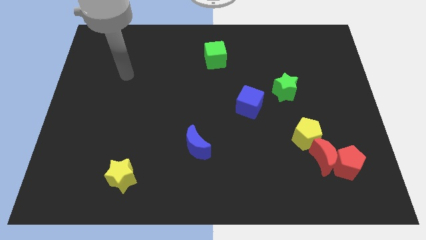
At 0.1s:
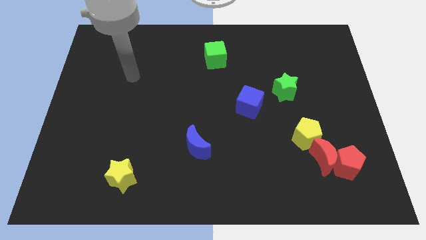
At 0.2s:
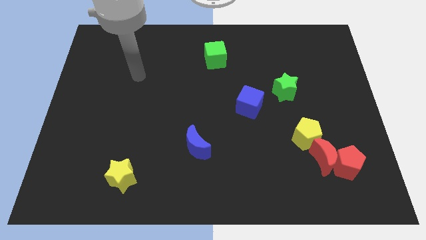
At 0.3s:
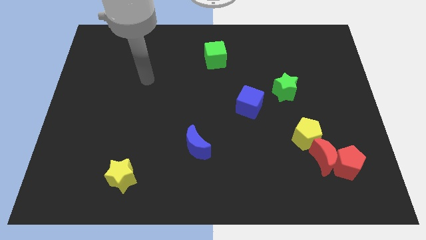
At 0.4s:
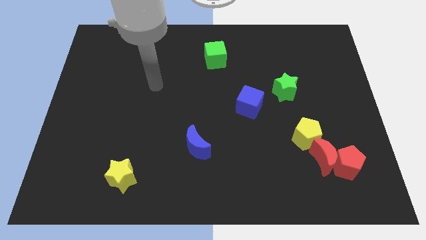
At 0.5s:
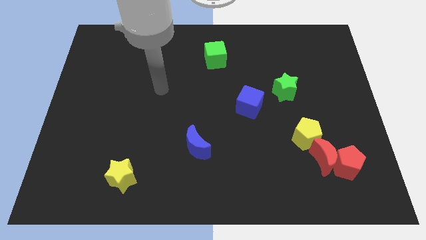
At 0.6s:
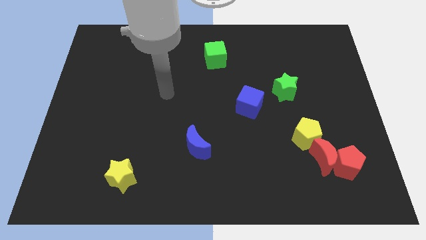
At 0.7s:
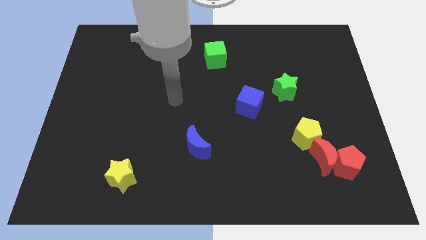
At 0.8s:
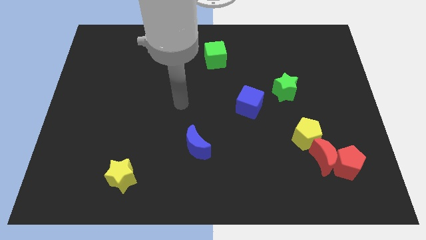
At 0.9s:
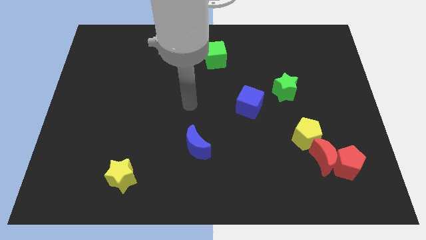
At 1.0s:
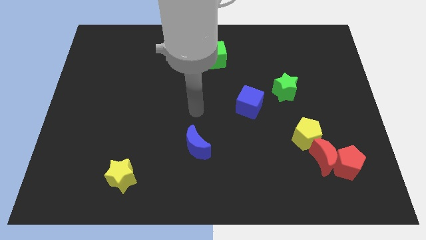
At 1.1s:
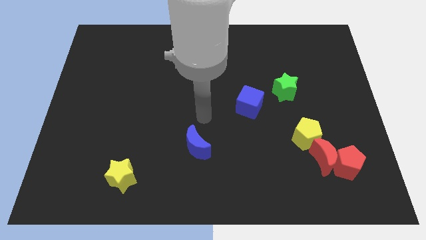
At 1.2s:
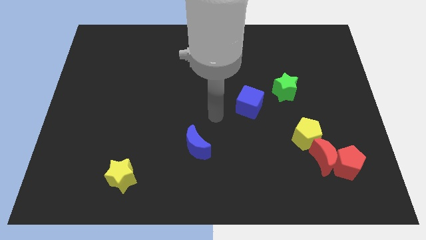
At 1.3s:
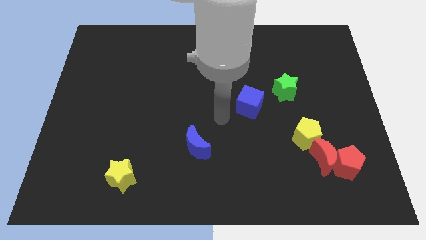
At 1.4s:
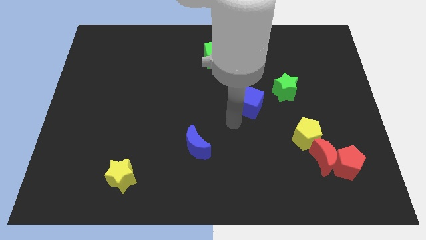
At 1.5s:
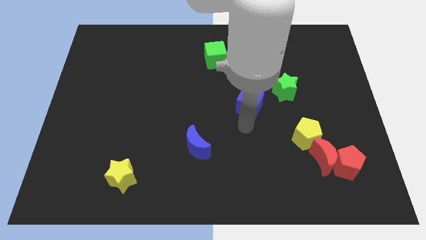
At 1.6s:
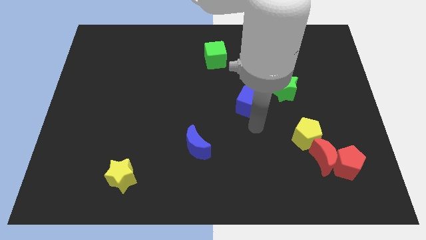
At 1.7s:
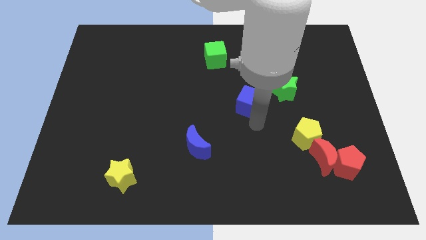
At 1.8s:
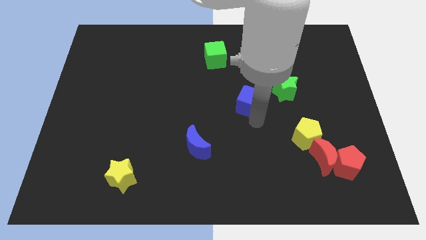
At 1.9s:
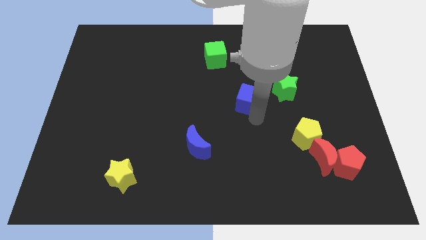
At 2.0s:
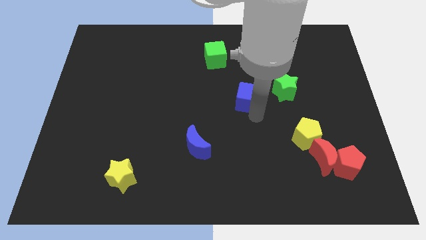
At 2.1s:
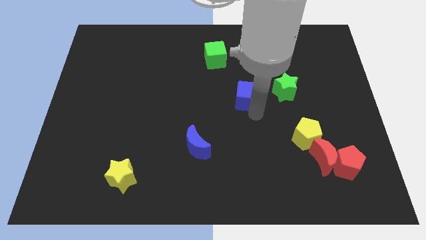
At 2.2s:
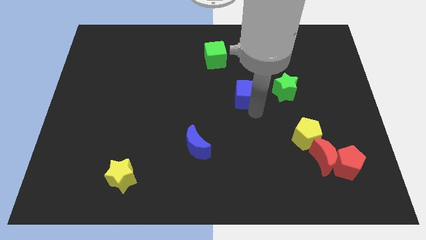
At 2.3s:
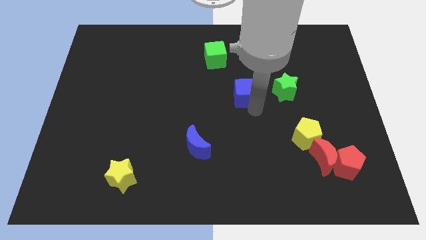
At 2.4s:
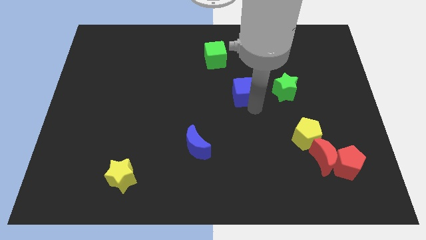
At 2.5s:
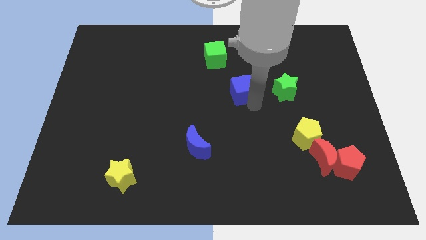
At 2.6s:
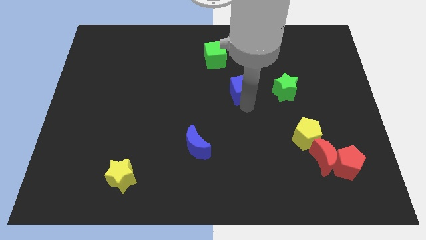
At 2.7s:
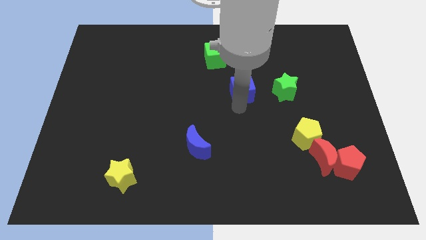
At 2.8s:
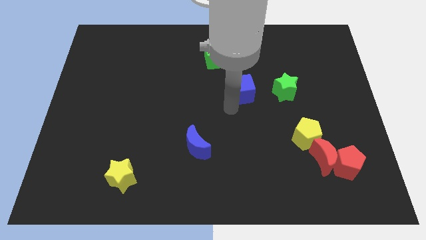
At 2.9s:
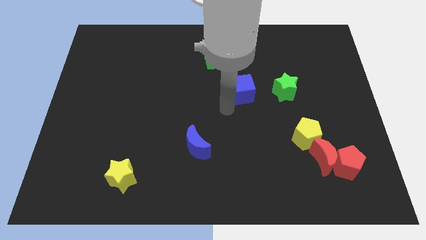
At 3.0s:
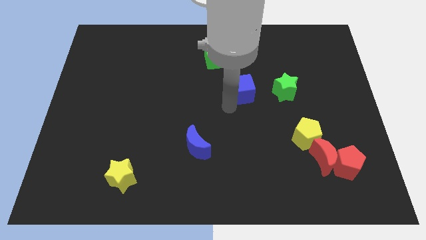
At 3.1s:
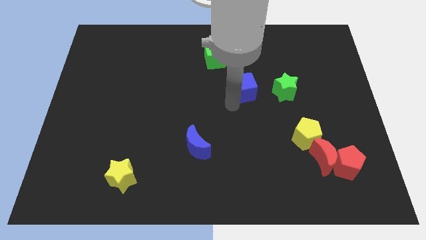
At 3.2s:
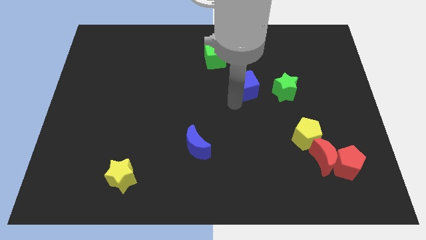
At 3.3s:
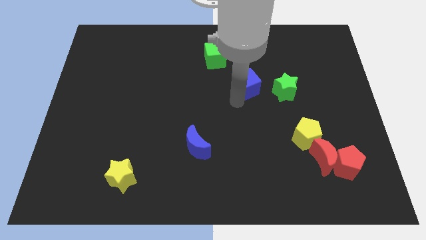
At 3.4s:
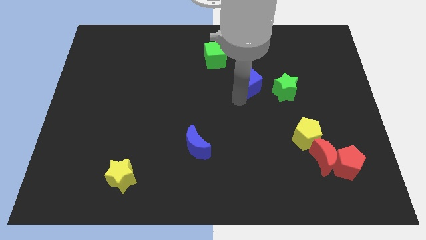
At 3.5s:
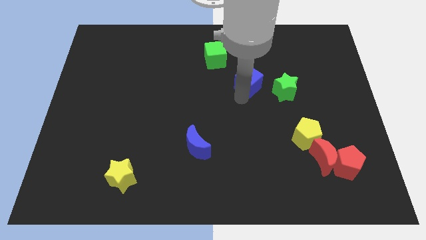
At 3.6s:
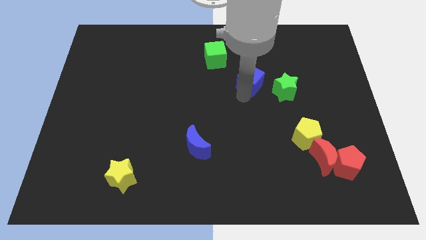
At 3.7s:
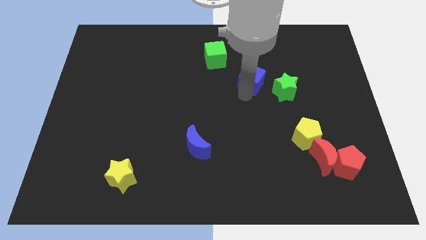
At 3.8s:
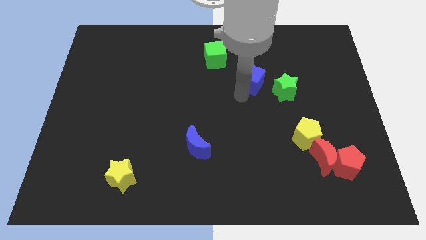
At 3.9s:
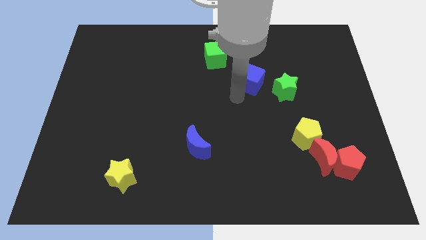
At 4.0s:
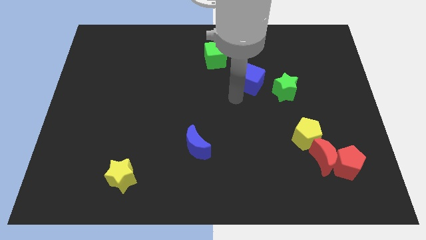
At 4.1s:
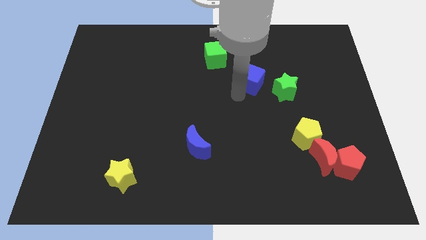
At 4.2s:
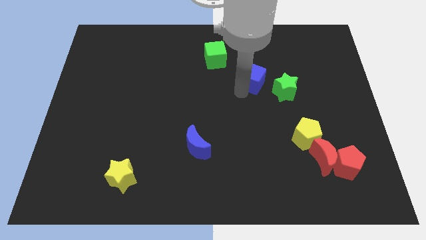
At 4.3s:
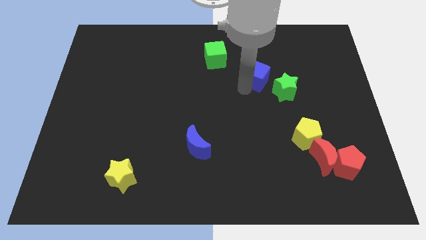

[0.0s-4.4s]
move the blue cube somewhat diagonally upwards and to the right

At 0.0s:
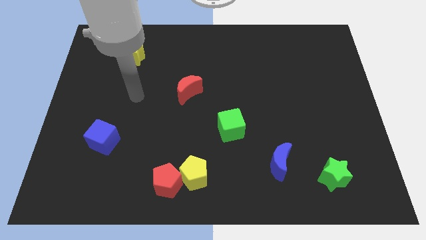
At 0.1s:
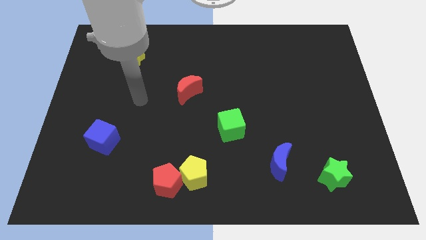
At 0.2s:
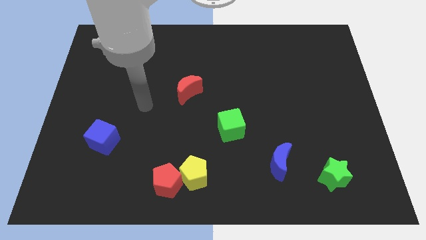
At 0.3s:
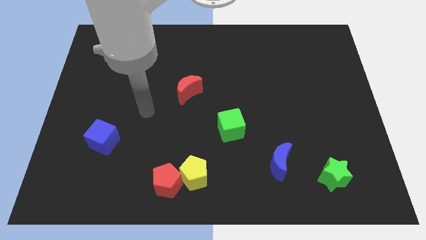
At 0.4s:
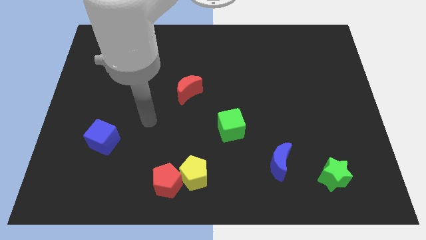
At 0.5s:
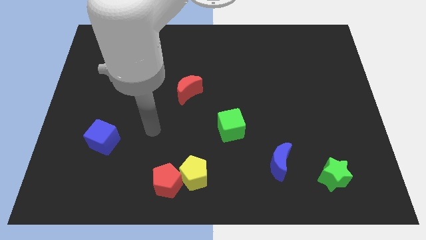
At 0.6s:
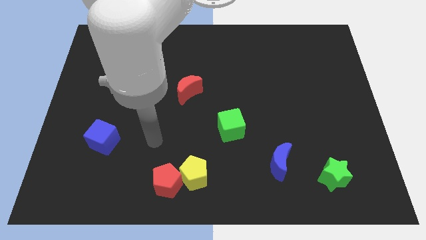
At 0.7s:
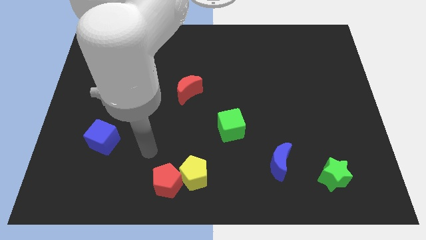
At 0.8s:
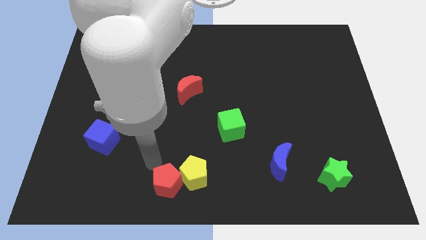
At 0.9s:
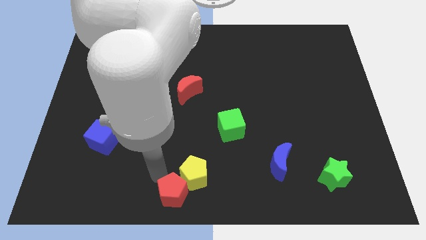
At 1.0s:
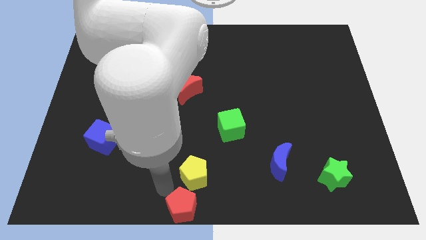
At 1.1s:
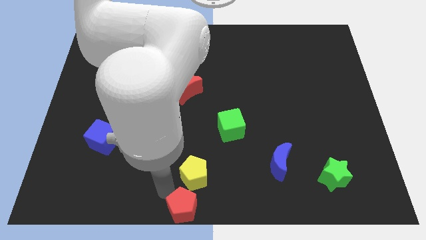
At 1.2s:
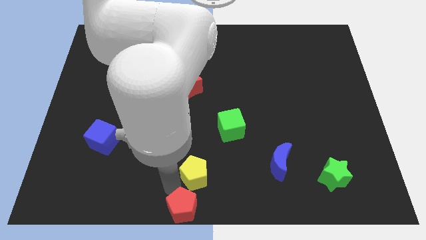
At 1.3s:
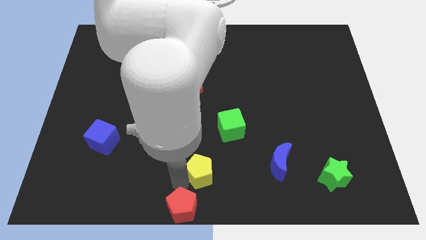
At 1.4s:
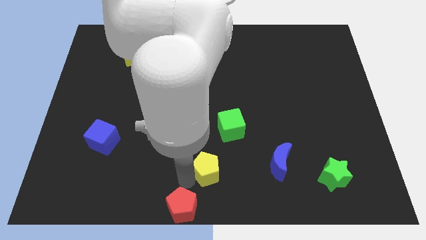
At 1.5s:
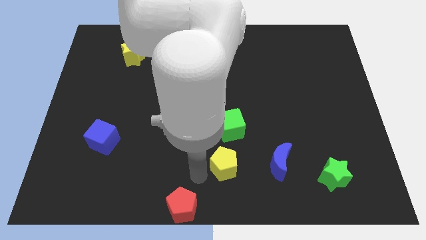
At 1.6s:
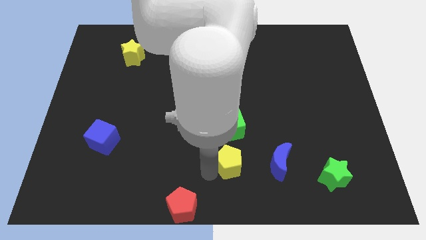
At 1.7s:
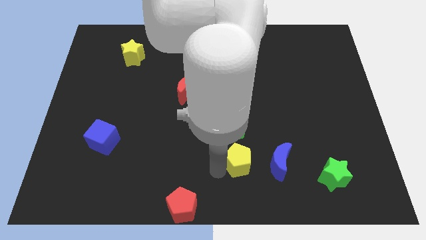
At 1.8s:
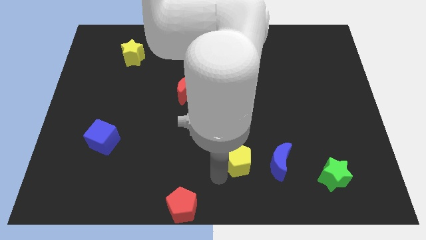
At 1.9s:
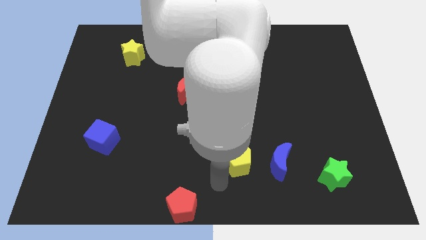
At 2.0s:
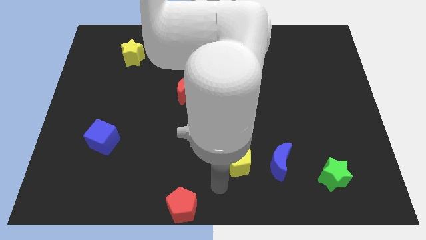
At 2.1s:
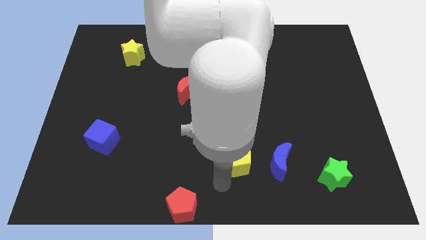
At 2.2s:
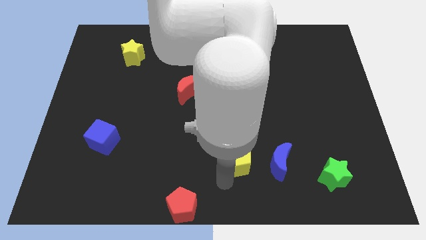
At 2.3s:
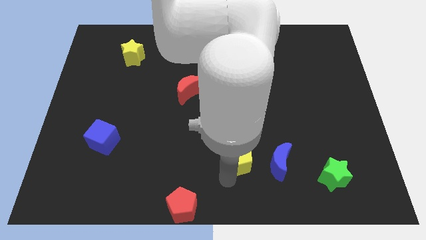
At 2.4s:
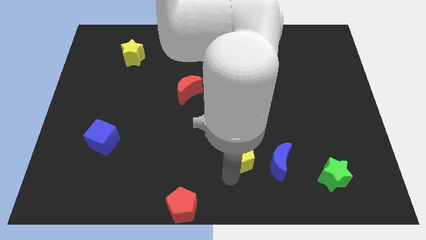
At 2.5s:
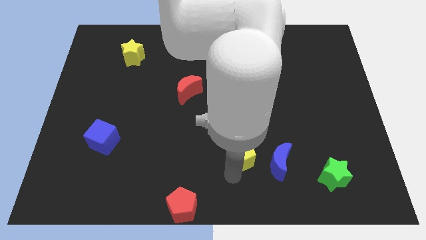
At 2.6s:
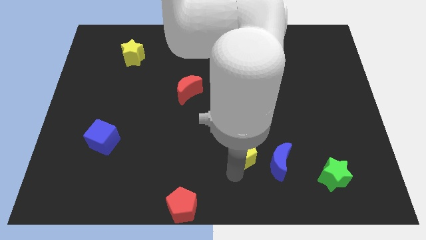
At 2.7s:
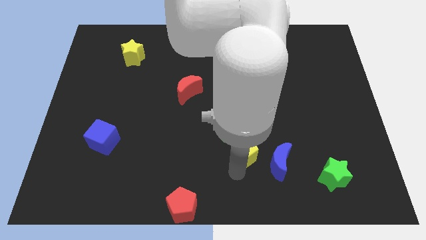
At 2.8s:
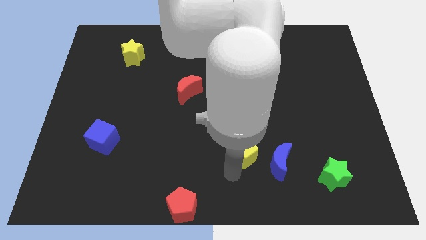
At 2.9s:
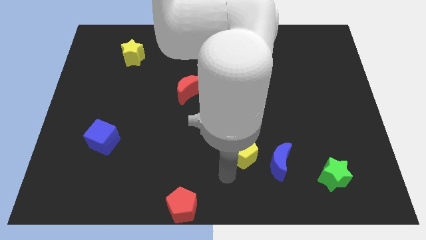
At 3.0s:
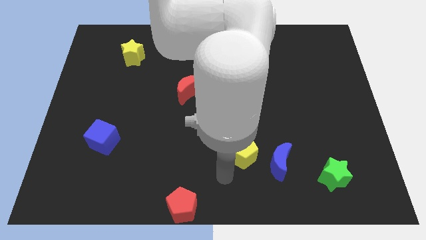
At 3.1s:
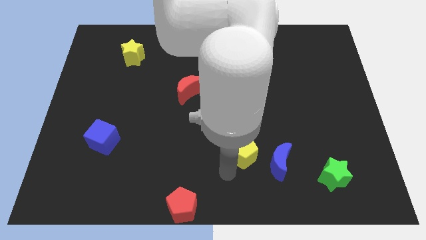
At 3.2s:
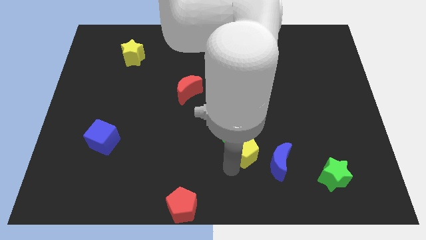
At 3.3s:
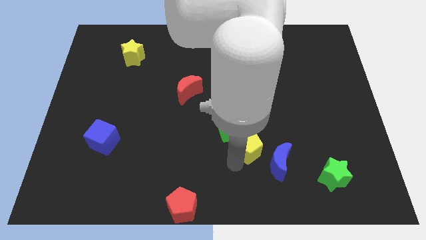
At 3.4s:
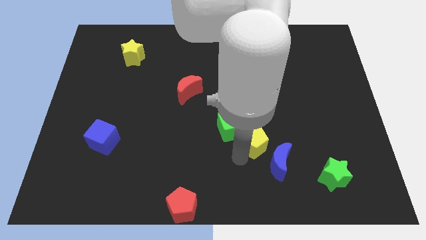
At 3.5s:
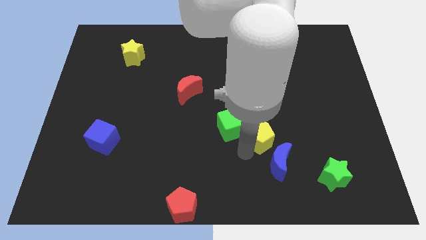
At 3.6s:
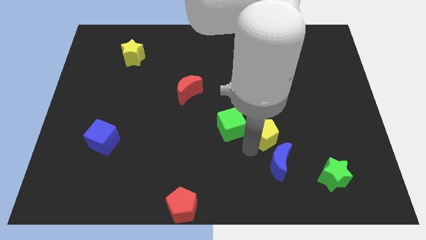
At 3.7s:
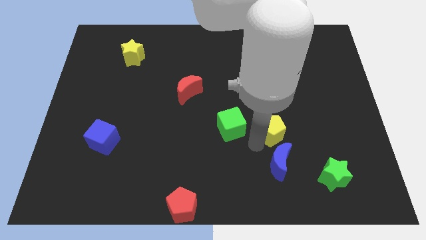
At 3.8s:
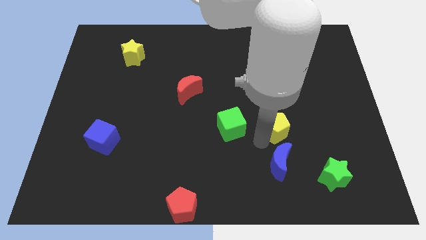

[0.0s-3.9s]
move the yellow pentagon upwards and to the right
